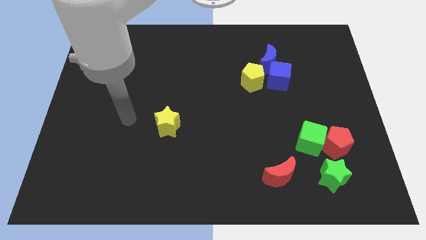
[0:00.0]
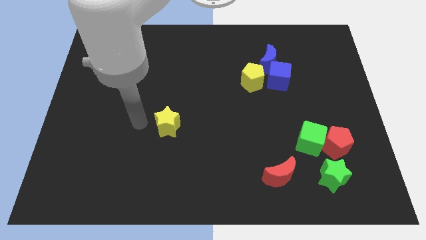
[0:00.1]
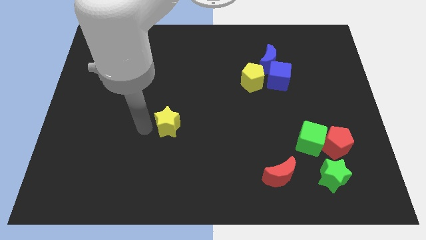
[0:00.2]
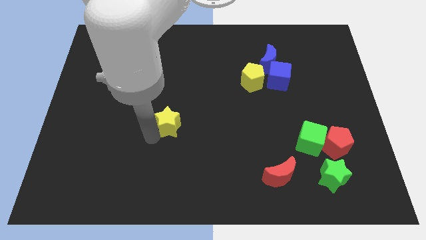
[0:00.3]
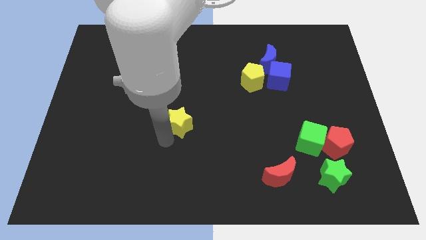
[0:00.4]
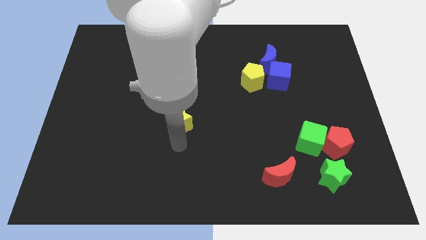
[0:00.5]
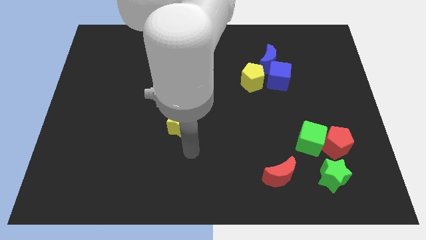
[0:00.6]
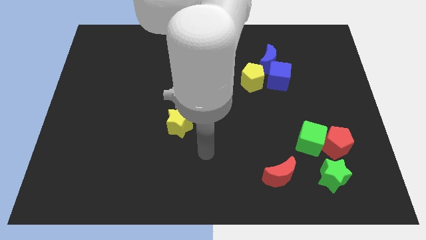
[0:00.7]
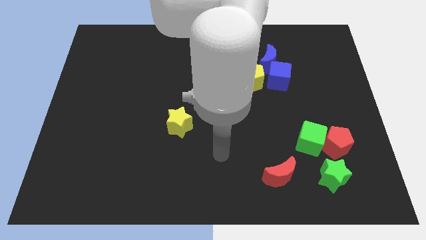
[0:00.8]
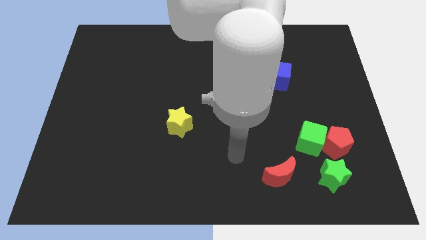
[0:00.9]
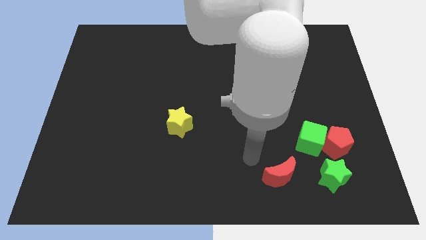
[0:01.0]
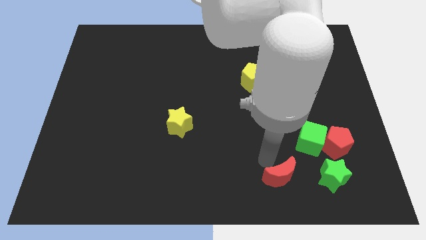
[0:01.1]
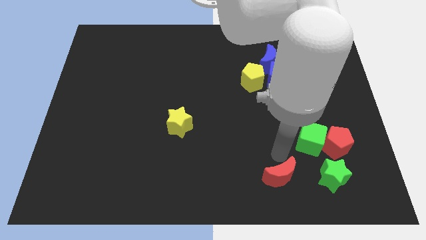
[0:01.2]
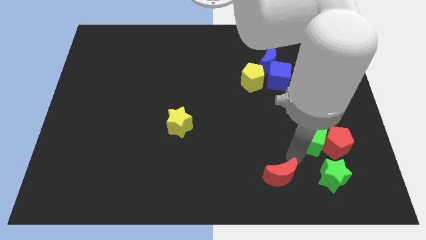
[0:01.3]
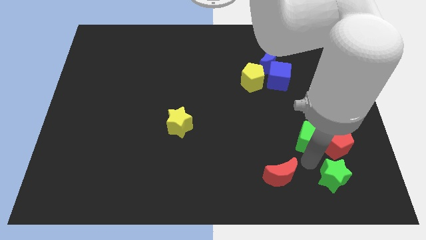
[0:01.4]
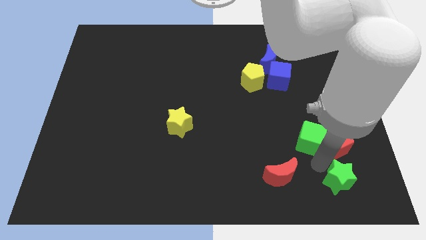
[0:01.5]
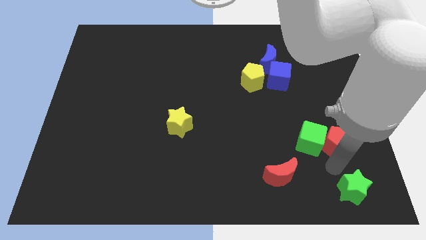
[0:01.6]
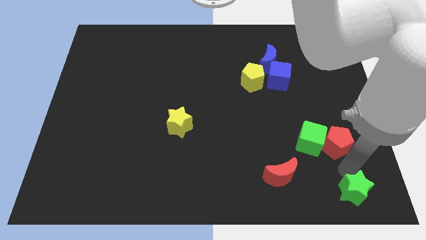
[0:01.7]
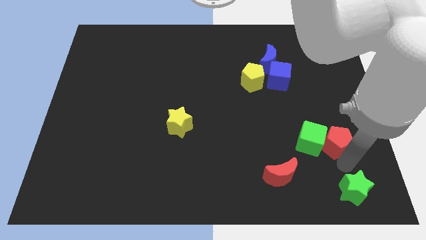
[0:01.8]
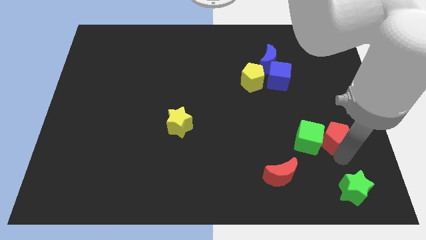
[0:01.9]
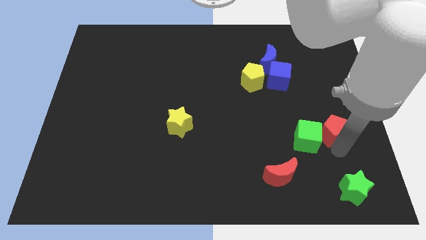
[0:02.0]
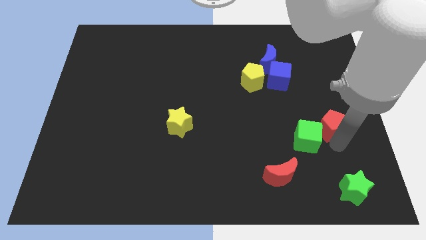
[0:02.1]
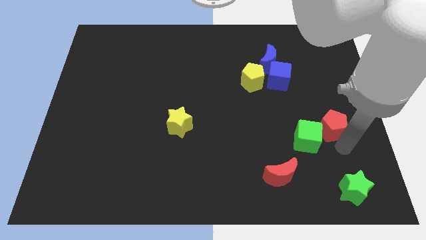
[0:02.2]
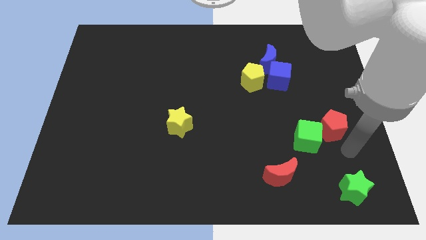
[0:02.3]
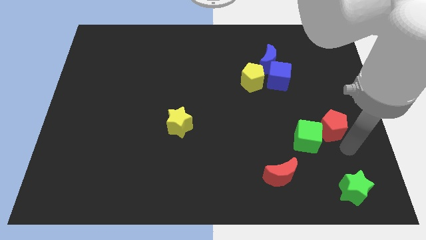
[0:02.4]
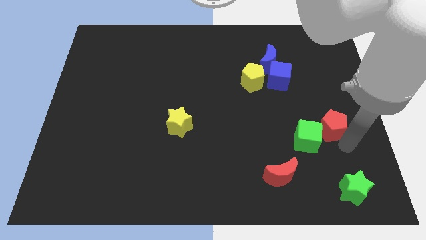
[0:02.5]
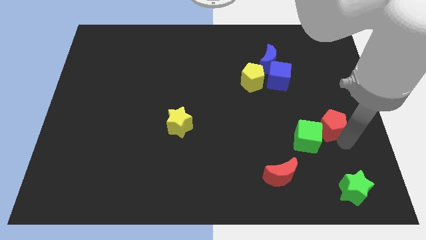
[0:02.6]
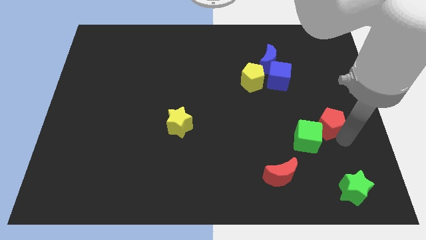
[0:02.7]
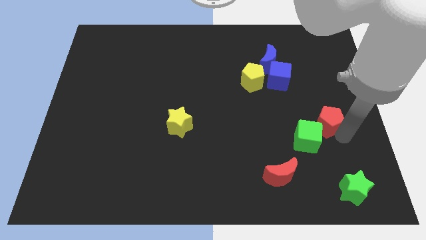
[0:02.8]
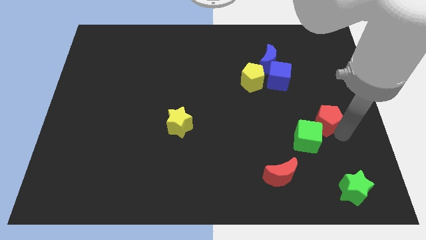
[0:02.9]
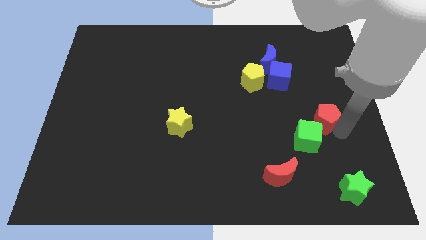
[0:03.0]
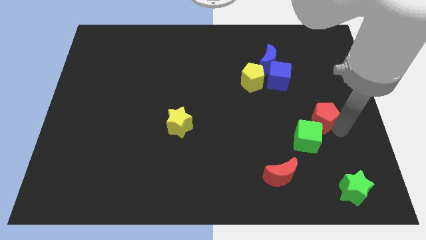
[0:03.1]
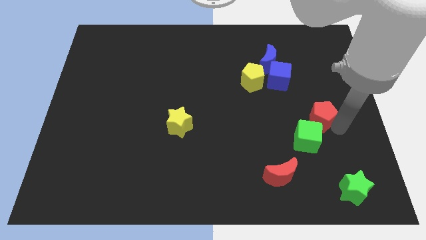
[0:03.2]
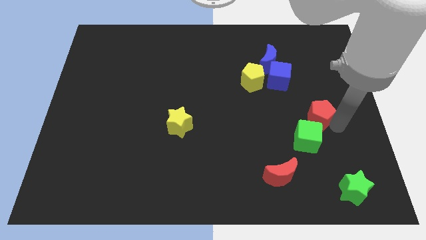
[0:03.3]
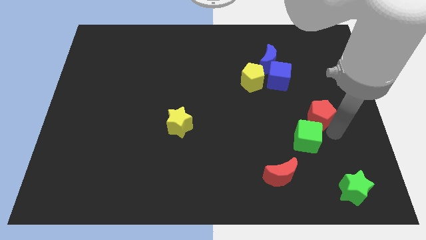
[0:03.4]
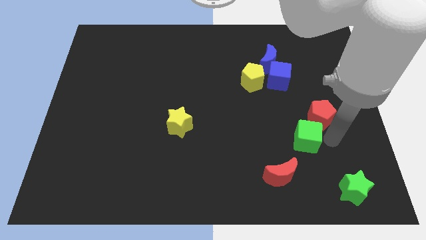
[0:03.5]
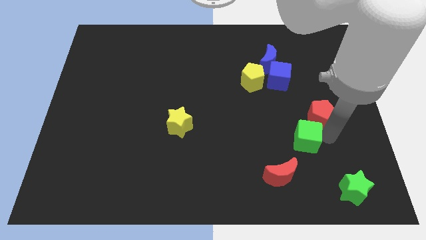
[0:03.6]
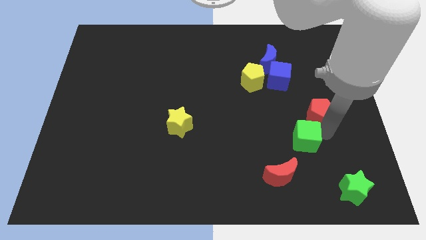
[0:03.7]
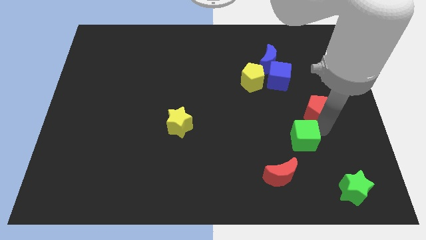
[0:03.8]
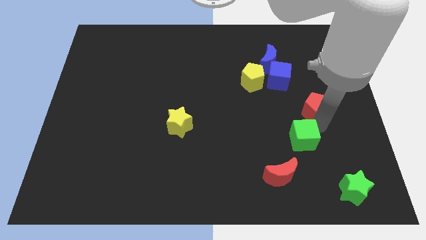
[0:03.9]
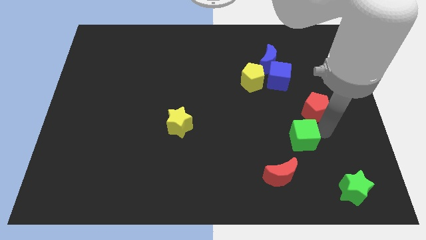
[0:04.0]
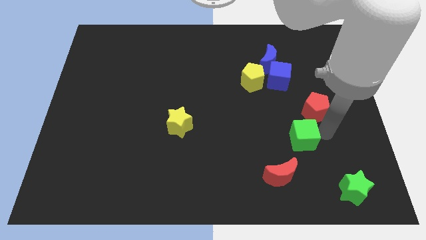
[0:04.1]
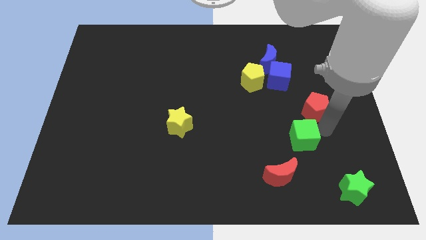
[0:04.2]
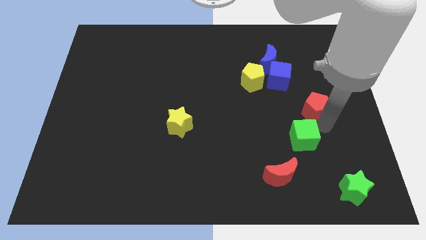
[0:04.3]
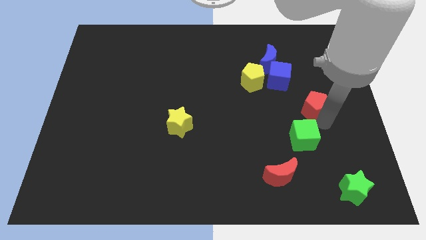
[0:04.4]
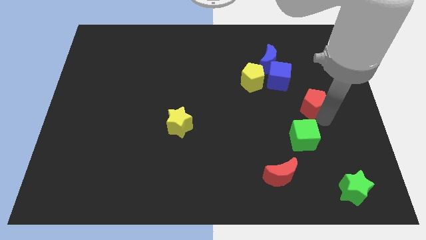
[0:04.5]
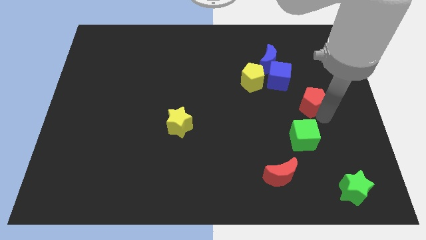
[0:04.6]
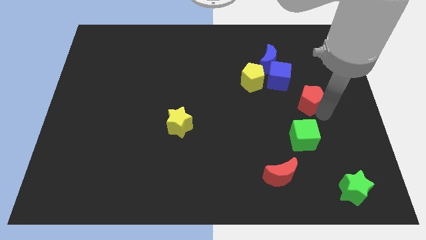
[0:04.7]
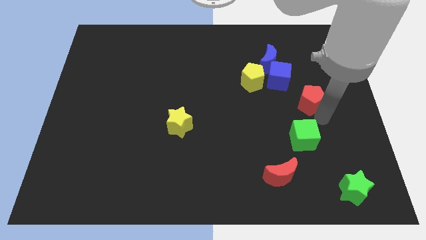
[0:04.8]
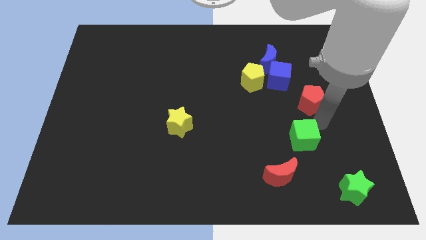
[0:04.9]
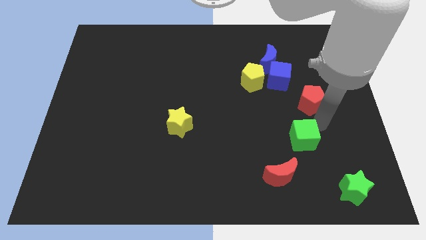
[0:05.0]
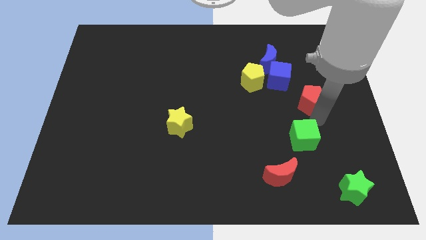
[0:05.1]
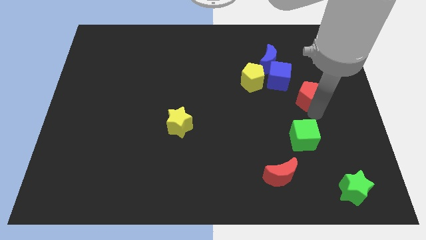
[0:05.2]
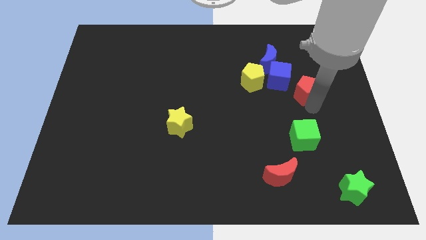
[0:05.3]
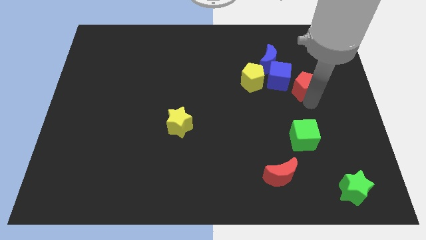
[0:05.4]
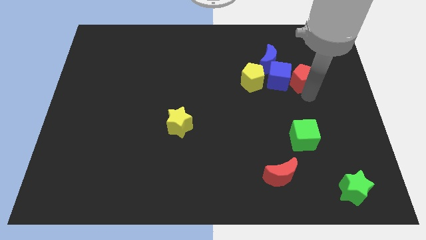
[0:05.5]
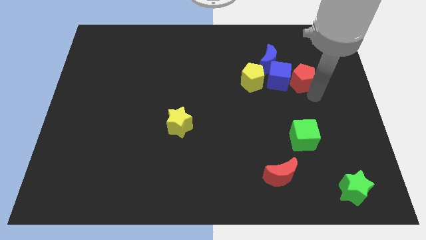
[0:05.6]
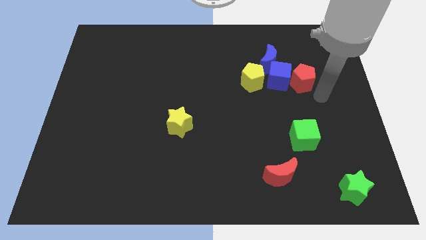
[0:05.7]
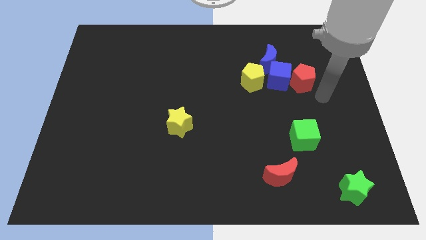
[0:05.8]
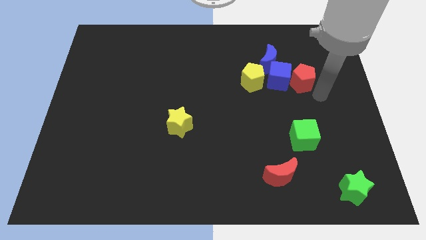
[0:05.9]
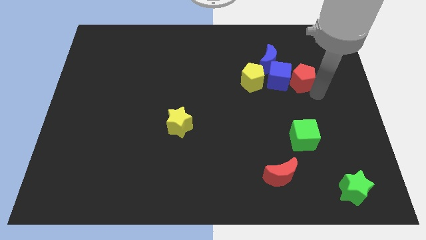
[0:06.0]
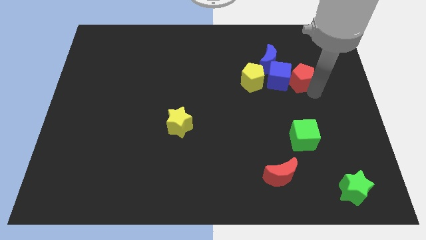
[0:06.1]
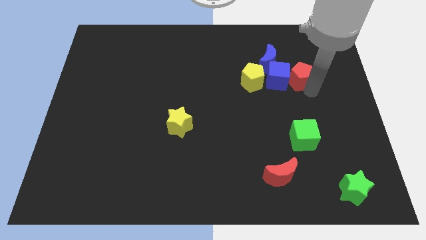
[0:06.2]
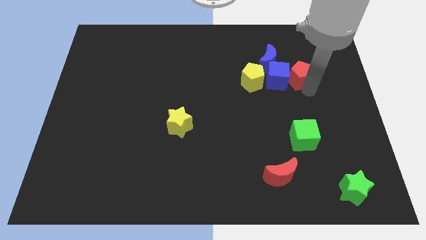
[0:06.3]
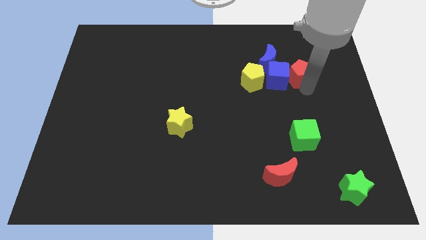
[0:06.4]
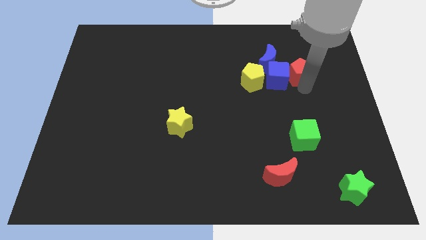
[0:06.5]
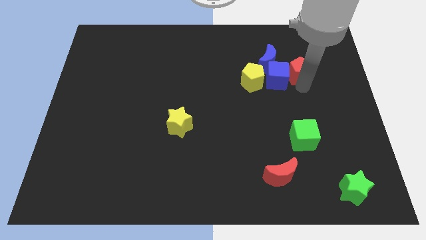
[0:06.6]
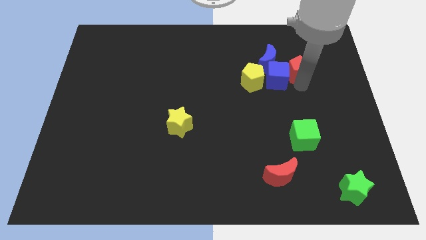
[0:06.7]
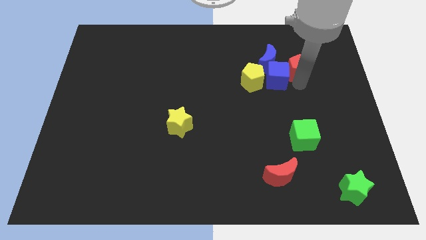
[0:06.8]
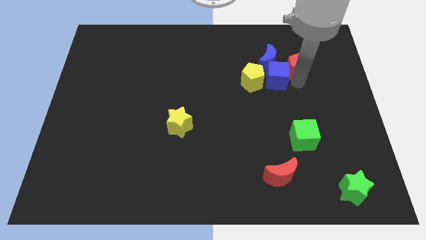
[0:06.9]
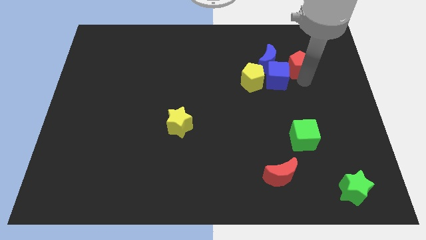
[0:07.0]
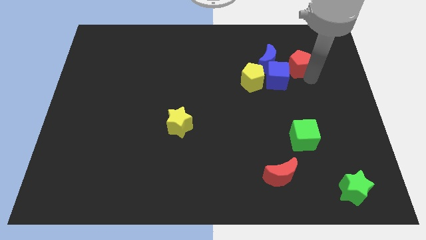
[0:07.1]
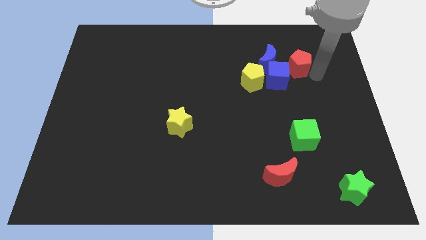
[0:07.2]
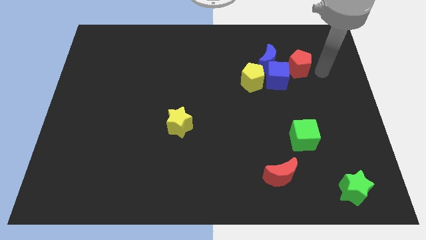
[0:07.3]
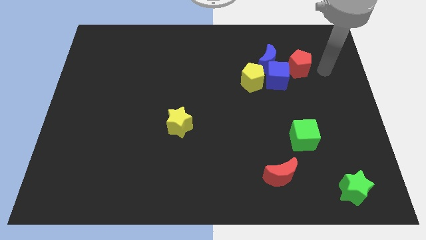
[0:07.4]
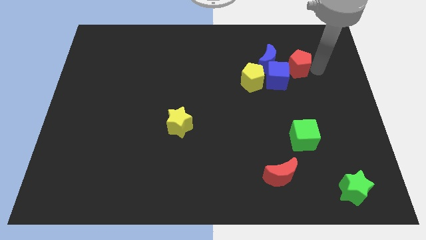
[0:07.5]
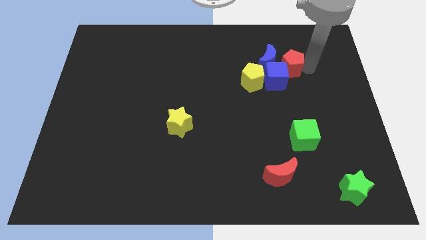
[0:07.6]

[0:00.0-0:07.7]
put the red pentagon close to the blue moon
